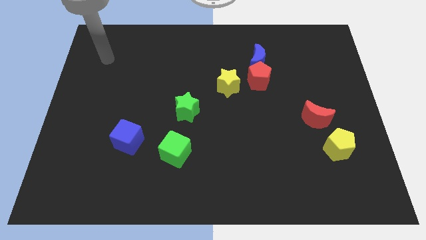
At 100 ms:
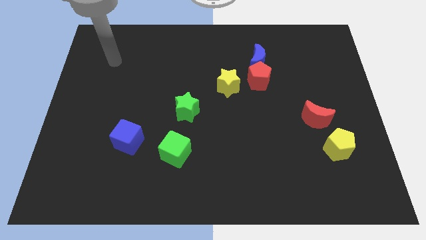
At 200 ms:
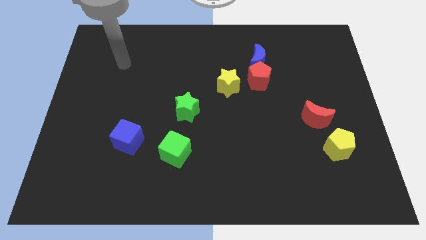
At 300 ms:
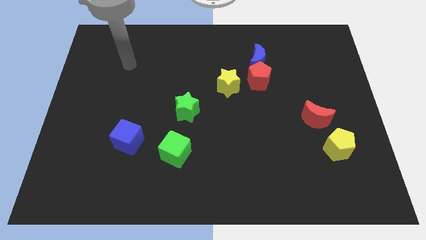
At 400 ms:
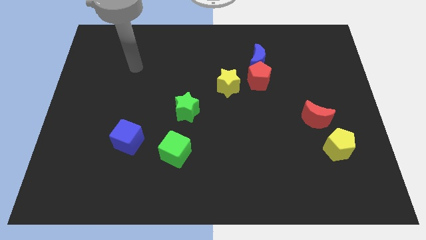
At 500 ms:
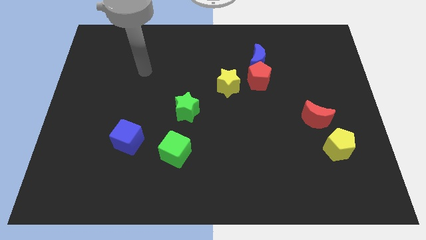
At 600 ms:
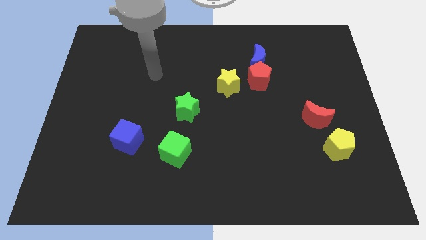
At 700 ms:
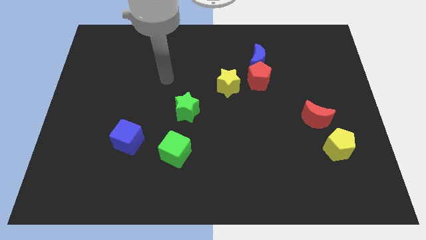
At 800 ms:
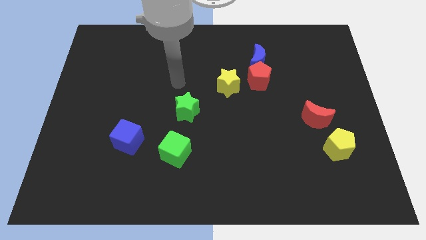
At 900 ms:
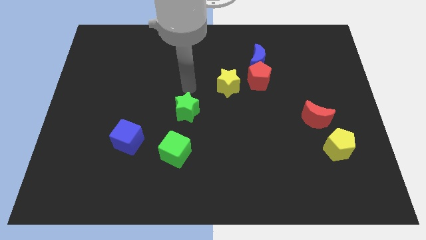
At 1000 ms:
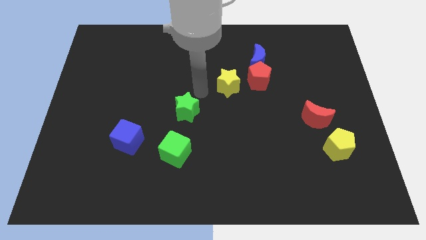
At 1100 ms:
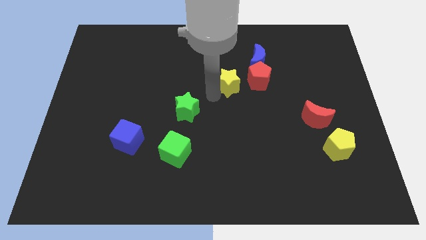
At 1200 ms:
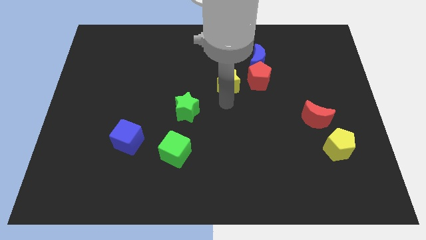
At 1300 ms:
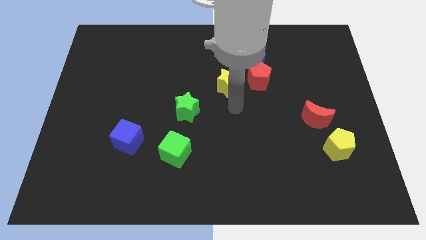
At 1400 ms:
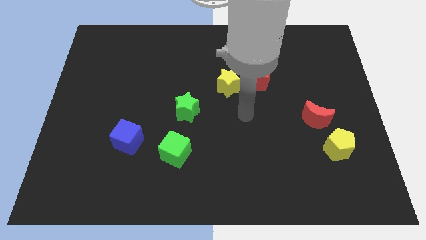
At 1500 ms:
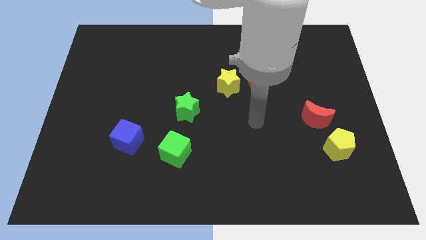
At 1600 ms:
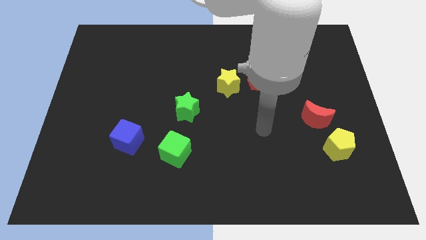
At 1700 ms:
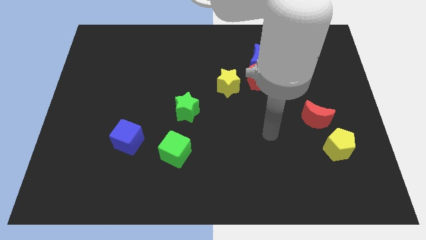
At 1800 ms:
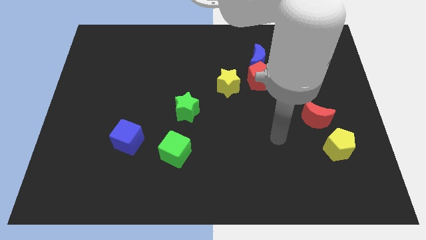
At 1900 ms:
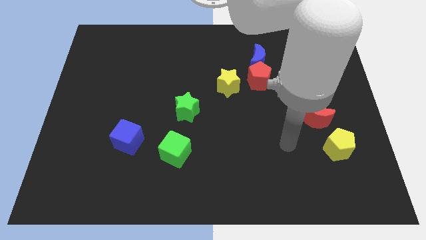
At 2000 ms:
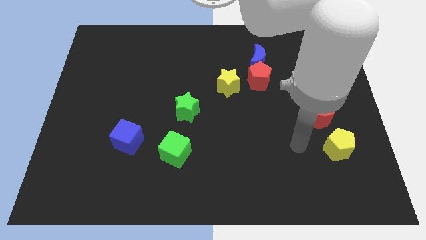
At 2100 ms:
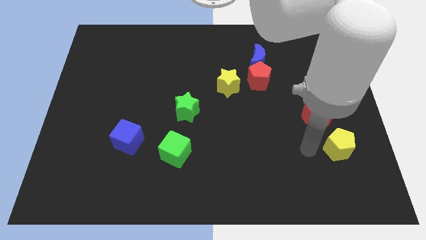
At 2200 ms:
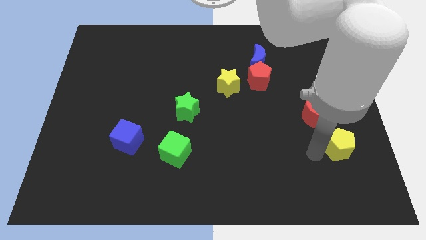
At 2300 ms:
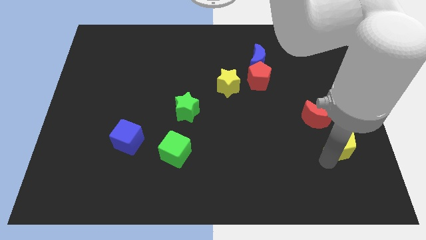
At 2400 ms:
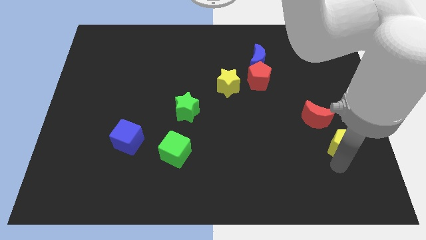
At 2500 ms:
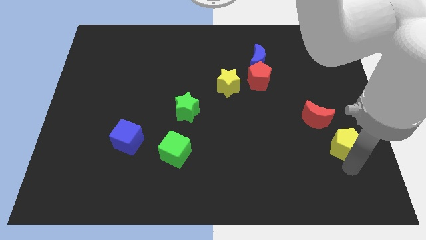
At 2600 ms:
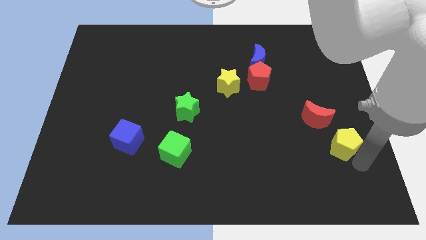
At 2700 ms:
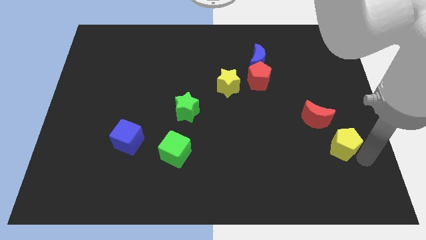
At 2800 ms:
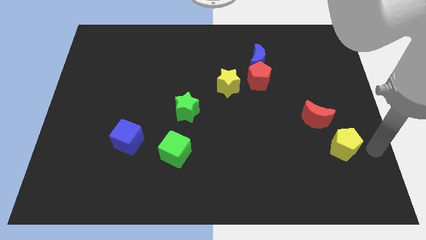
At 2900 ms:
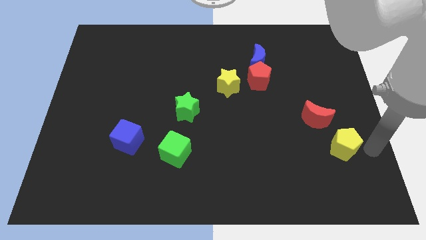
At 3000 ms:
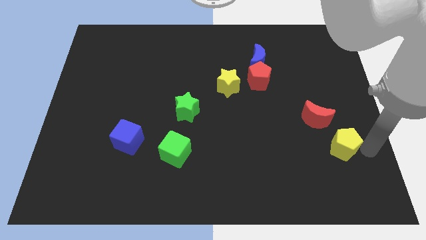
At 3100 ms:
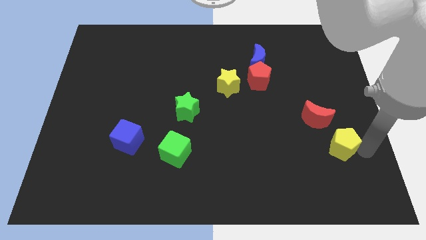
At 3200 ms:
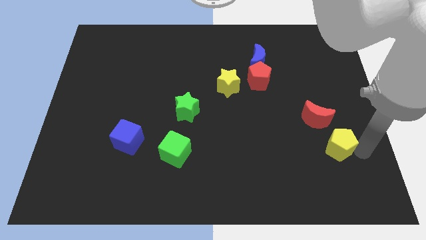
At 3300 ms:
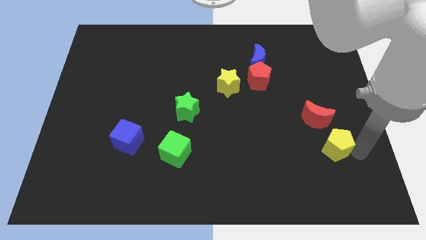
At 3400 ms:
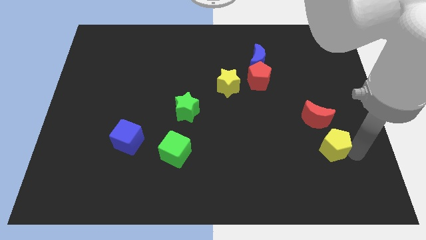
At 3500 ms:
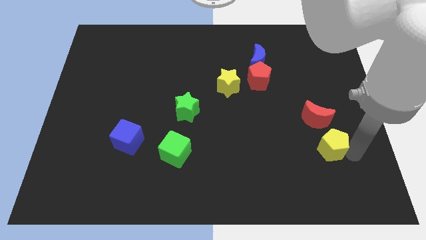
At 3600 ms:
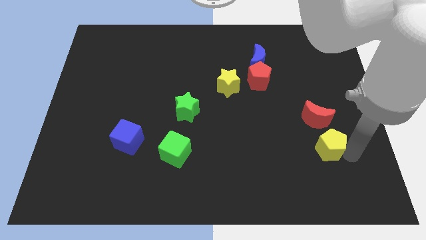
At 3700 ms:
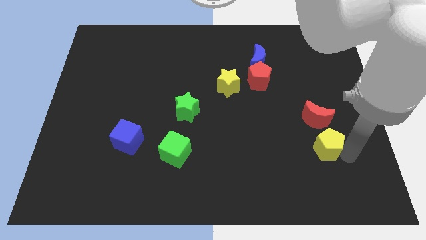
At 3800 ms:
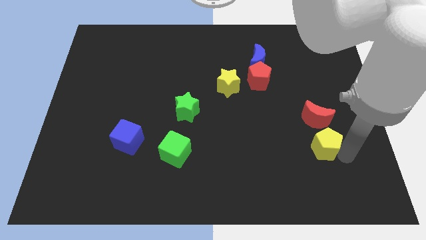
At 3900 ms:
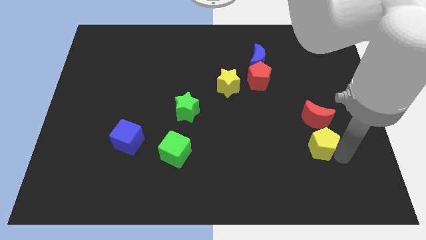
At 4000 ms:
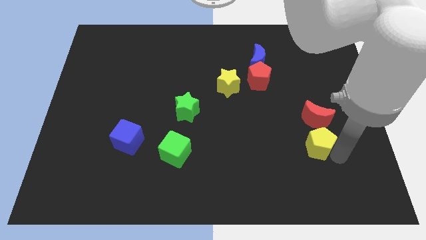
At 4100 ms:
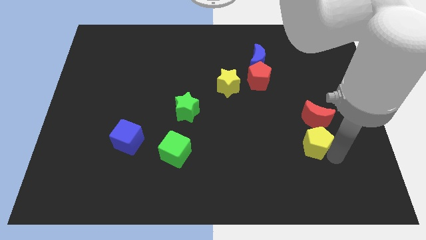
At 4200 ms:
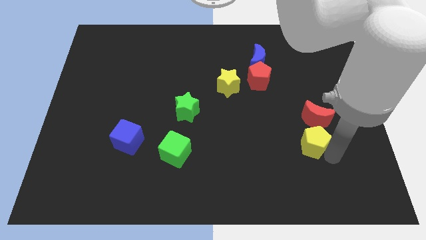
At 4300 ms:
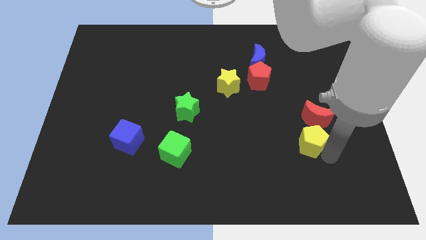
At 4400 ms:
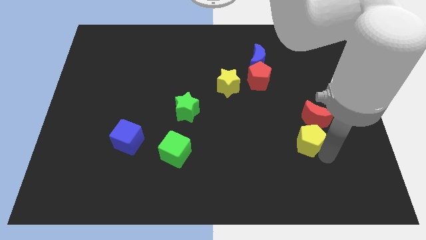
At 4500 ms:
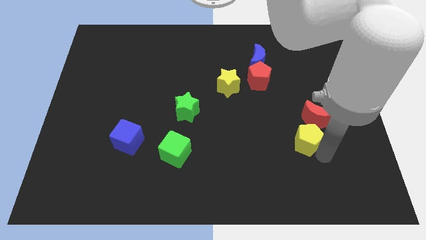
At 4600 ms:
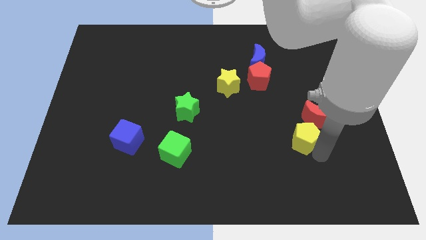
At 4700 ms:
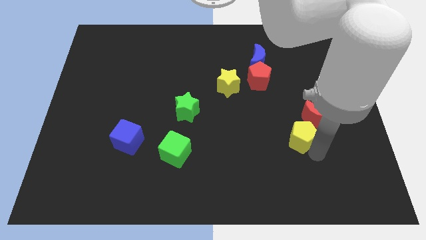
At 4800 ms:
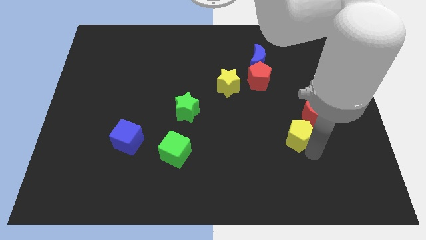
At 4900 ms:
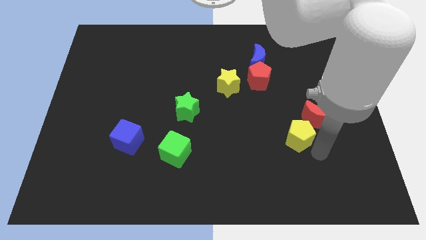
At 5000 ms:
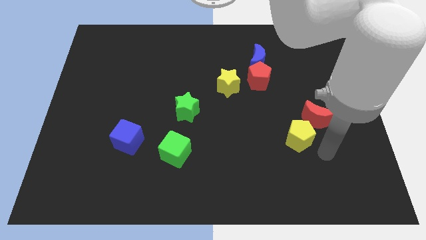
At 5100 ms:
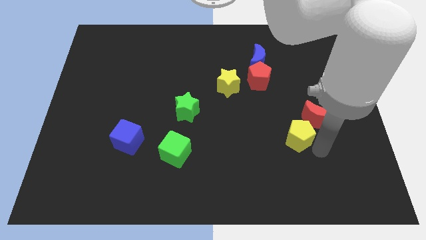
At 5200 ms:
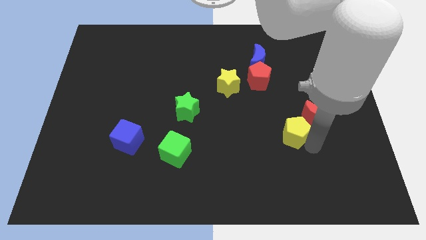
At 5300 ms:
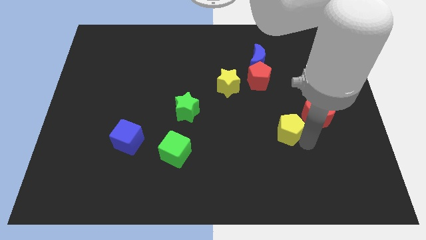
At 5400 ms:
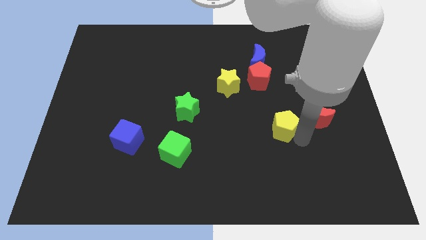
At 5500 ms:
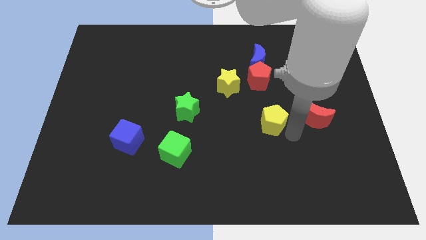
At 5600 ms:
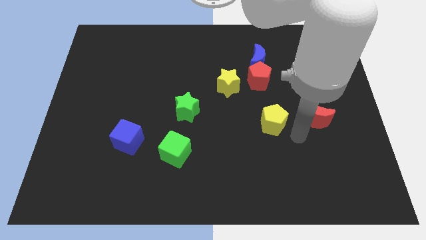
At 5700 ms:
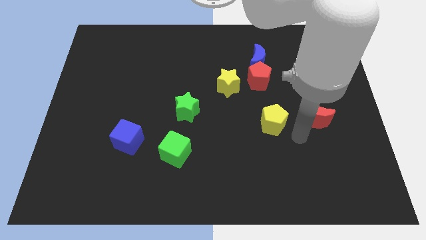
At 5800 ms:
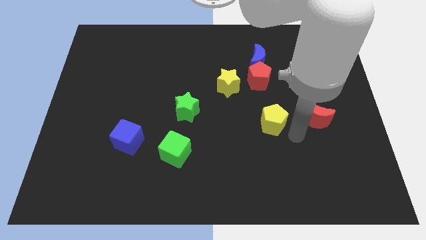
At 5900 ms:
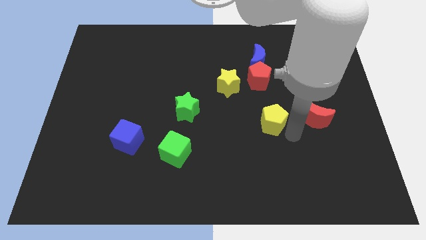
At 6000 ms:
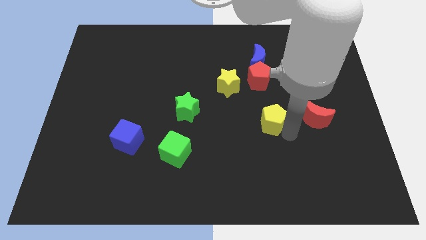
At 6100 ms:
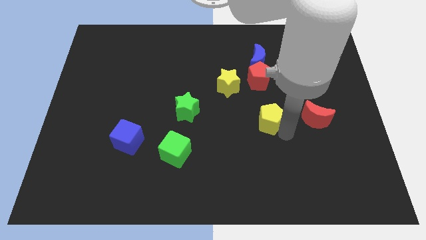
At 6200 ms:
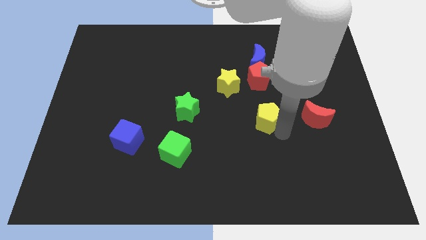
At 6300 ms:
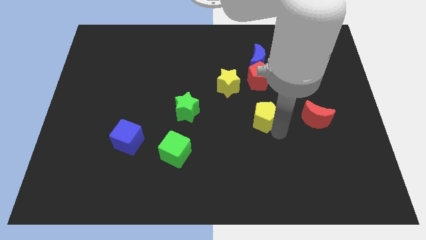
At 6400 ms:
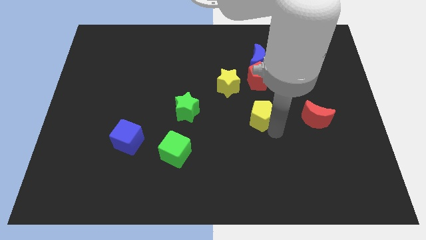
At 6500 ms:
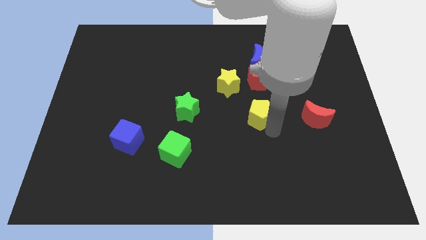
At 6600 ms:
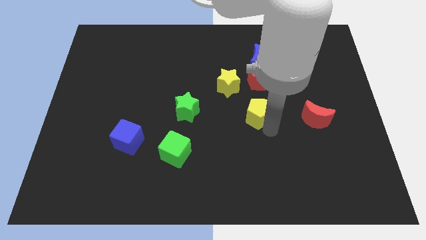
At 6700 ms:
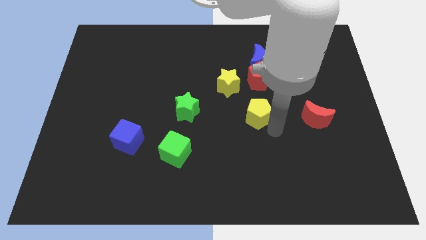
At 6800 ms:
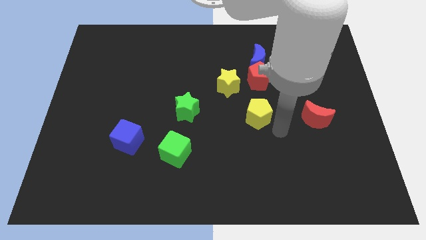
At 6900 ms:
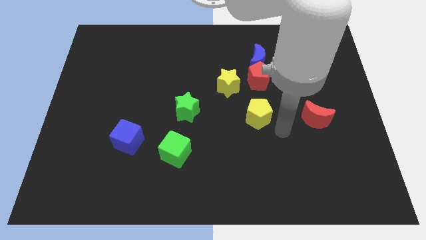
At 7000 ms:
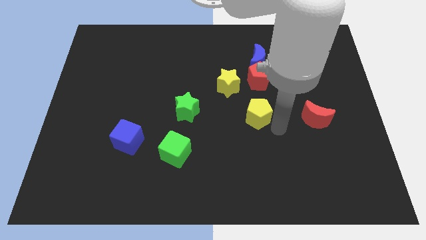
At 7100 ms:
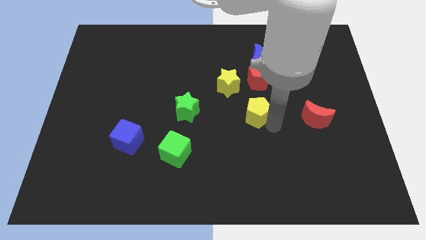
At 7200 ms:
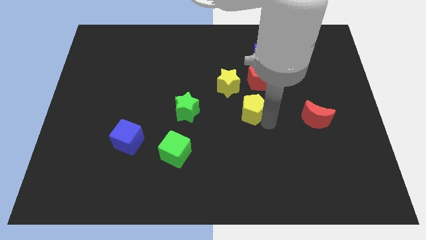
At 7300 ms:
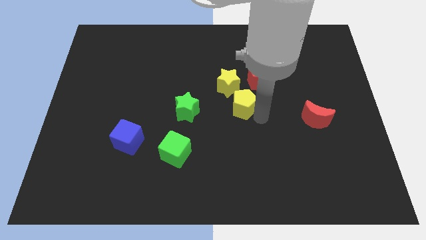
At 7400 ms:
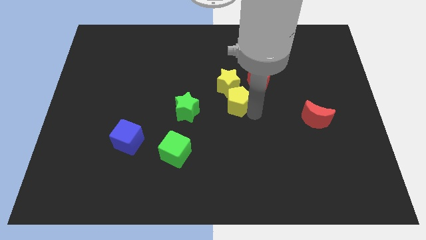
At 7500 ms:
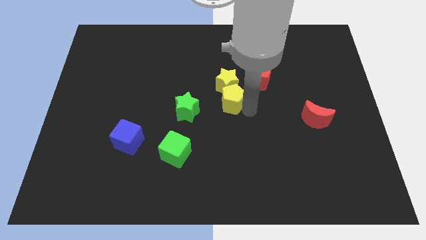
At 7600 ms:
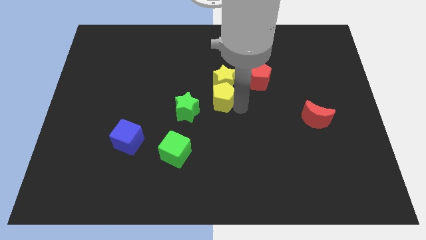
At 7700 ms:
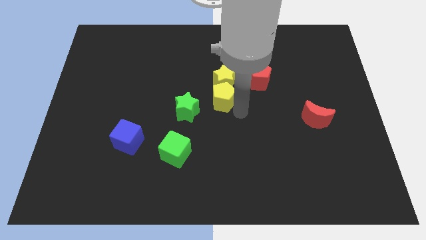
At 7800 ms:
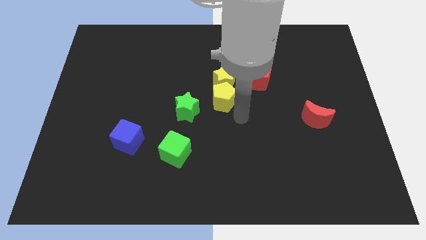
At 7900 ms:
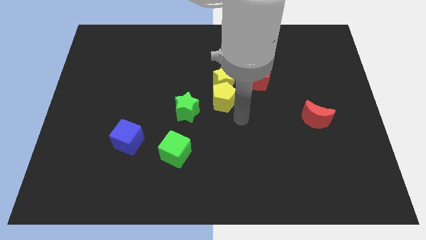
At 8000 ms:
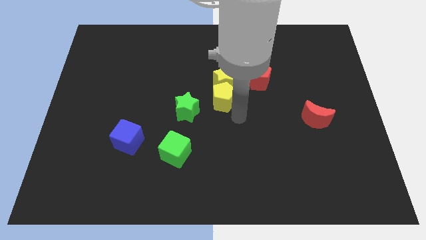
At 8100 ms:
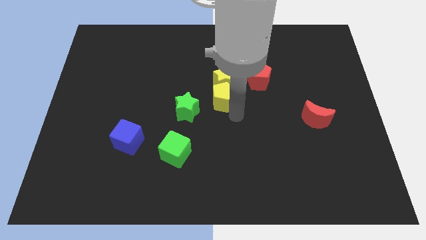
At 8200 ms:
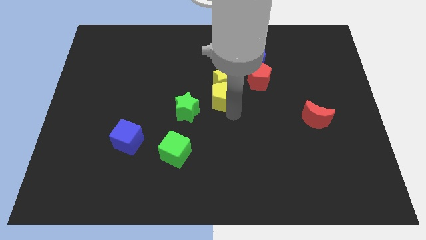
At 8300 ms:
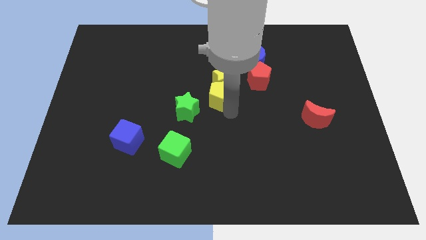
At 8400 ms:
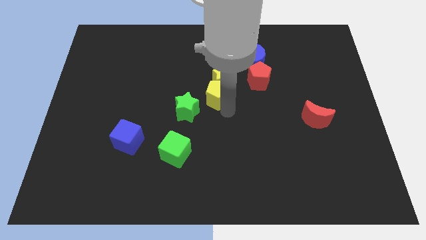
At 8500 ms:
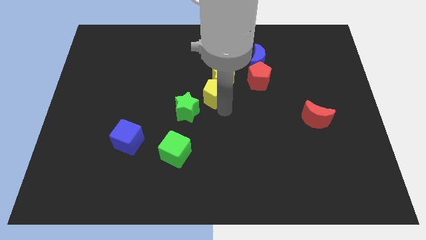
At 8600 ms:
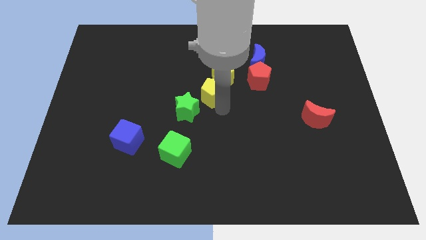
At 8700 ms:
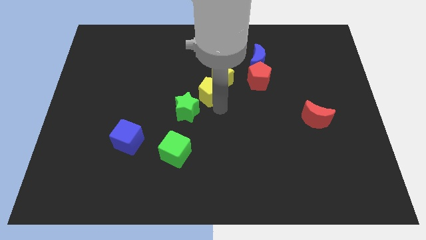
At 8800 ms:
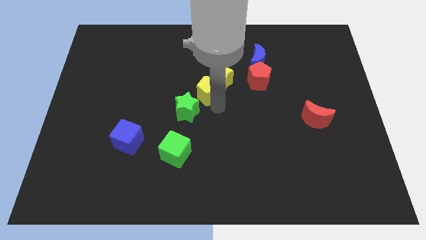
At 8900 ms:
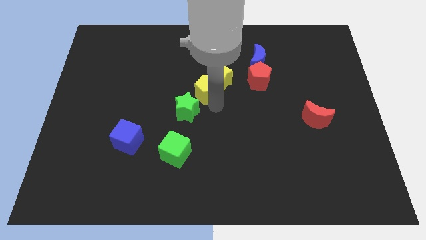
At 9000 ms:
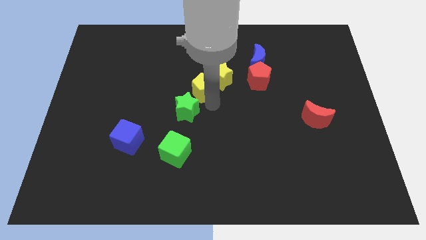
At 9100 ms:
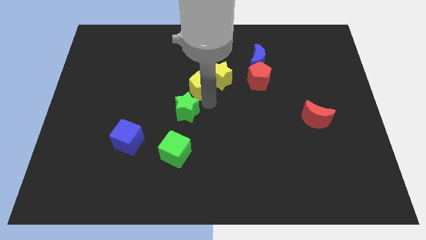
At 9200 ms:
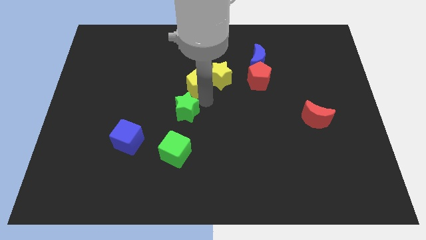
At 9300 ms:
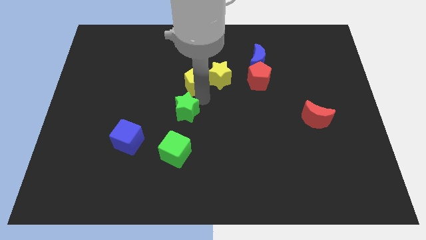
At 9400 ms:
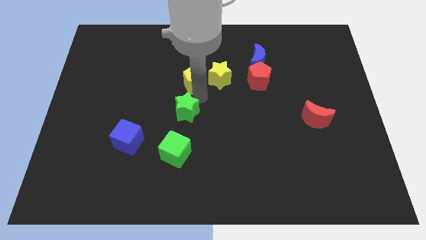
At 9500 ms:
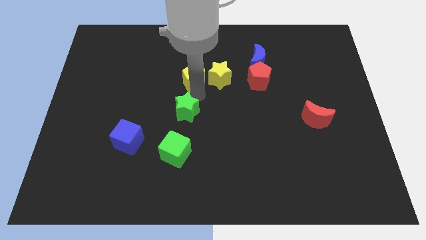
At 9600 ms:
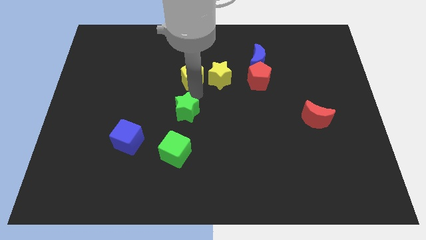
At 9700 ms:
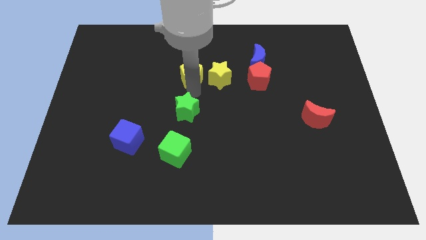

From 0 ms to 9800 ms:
push the yellow pentagon to the top left of the yellow star
